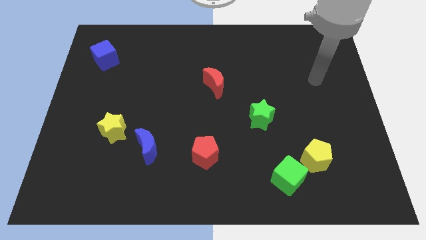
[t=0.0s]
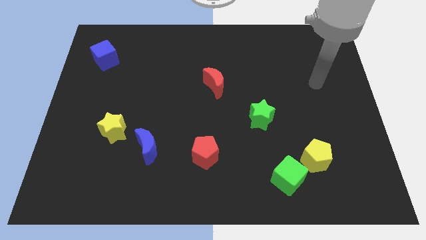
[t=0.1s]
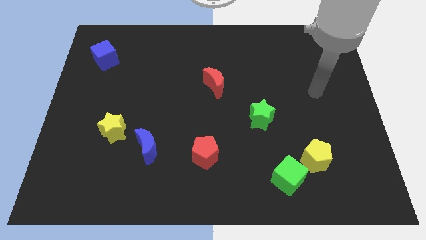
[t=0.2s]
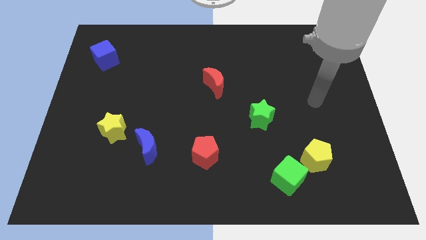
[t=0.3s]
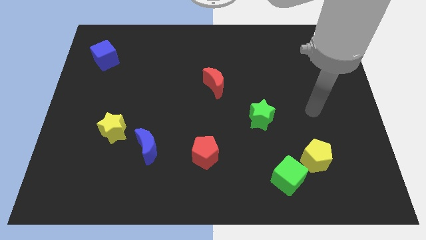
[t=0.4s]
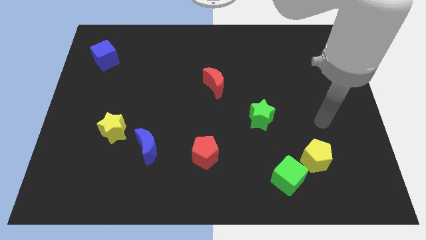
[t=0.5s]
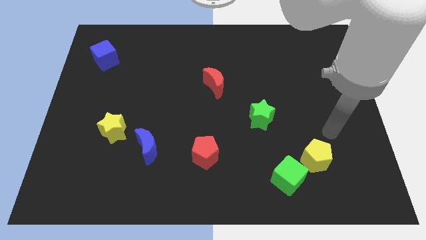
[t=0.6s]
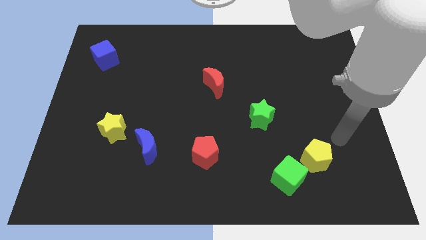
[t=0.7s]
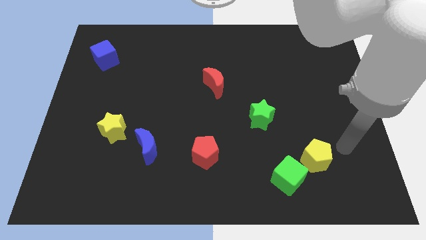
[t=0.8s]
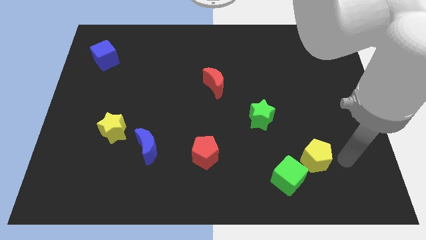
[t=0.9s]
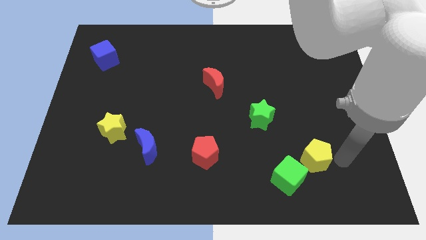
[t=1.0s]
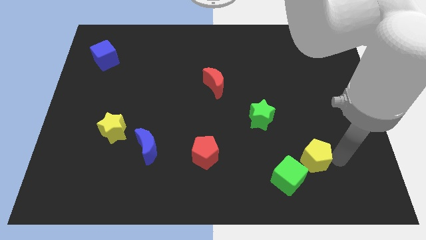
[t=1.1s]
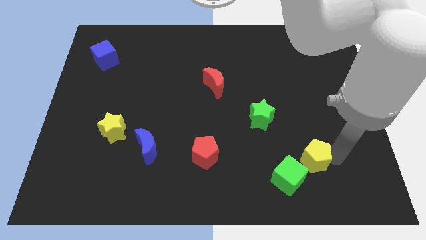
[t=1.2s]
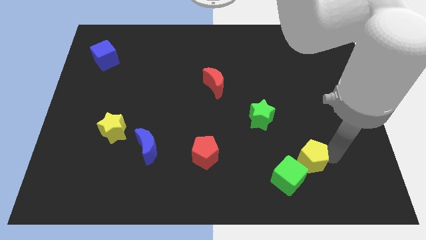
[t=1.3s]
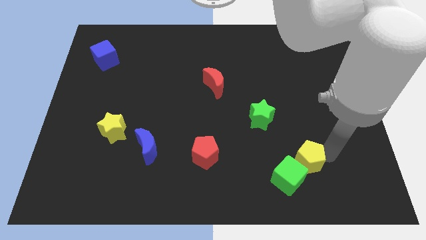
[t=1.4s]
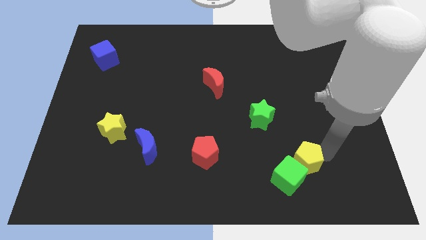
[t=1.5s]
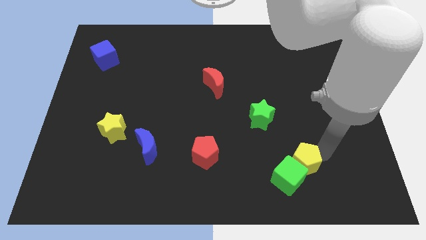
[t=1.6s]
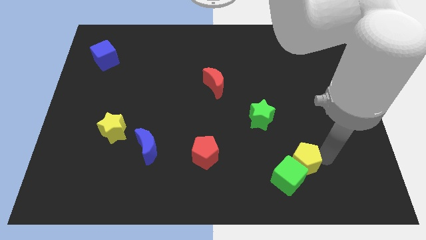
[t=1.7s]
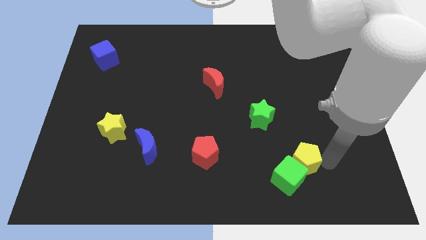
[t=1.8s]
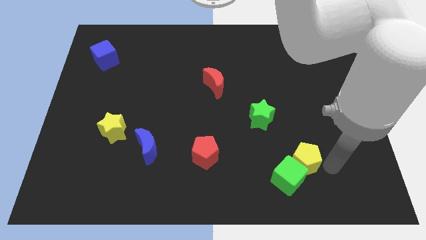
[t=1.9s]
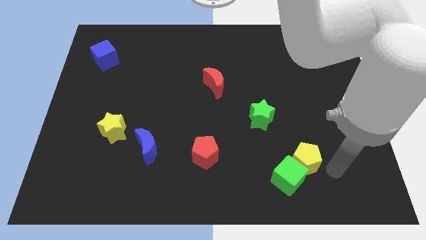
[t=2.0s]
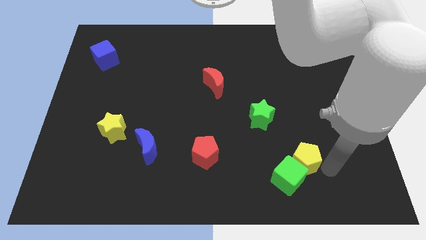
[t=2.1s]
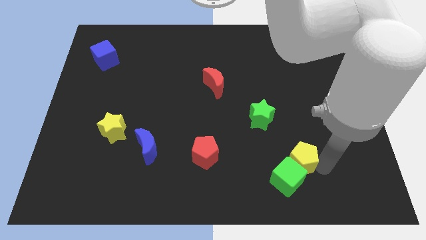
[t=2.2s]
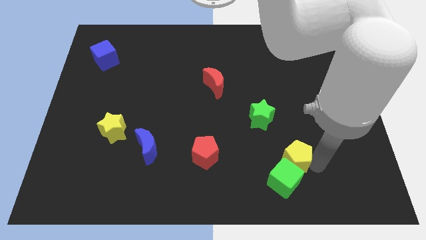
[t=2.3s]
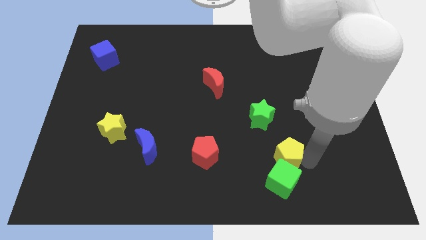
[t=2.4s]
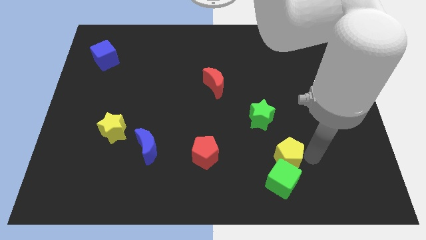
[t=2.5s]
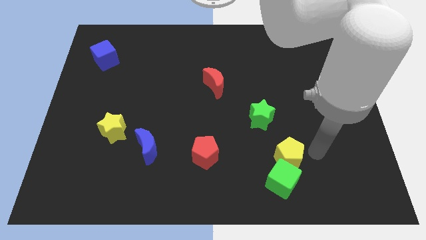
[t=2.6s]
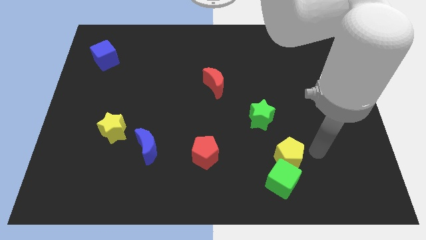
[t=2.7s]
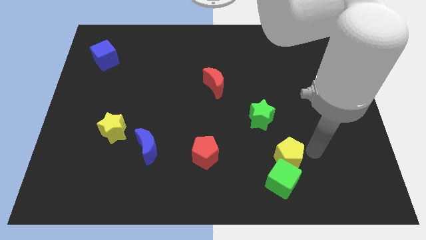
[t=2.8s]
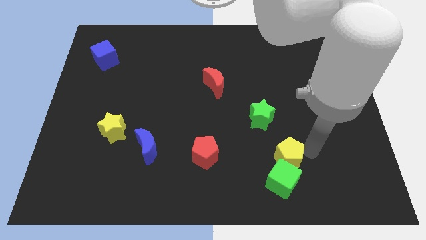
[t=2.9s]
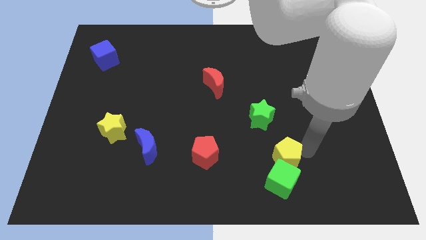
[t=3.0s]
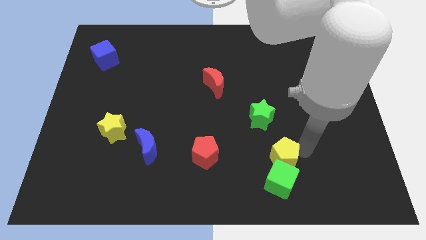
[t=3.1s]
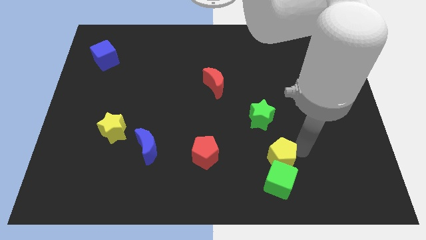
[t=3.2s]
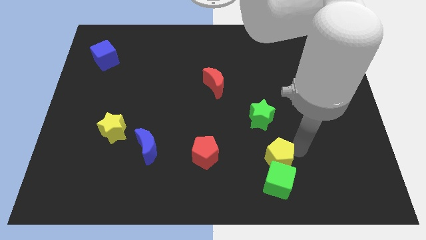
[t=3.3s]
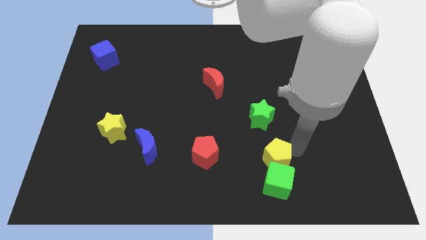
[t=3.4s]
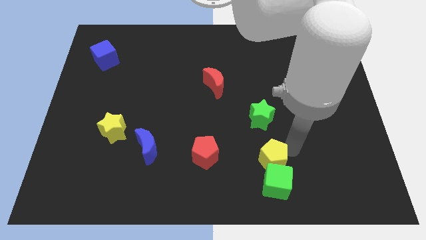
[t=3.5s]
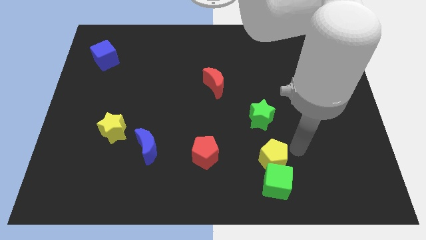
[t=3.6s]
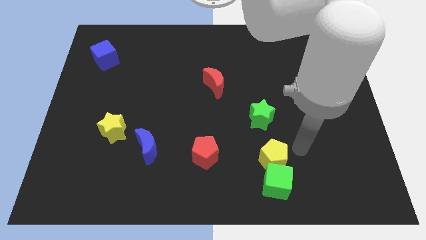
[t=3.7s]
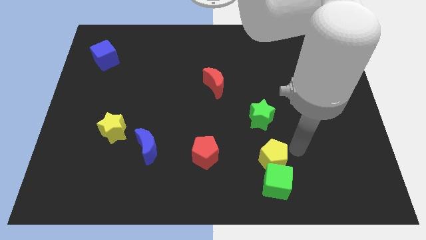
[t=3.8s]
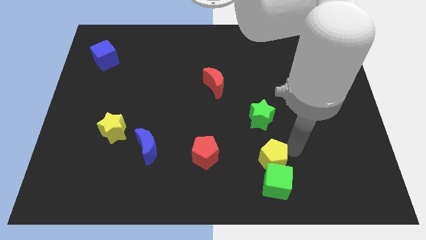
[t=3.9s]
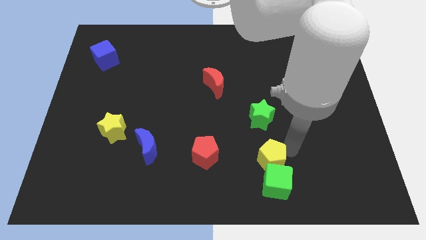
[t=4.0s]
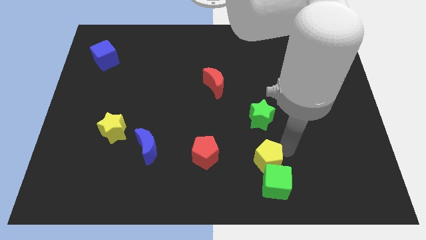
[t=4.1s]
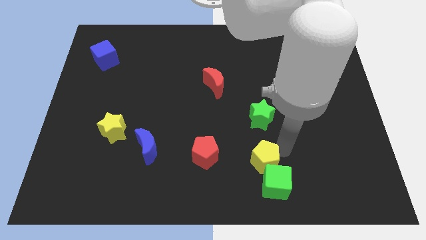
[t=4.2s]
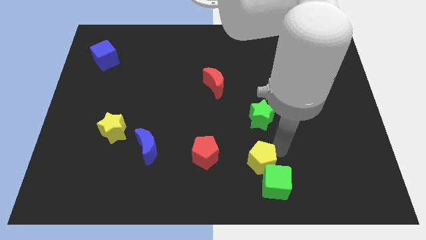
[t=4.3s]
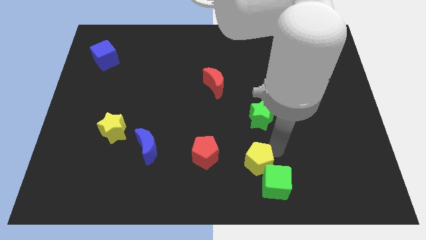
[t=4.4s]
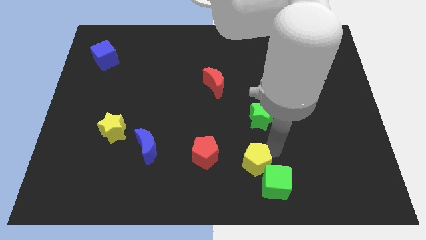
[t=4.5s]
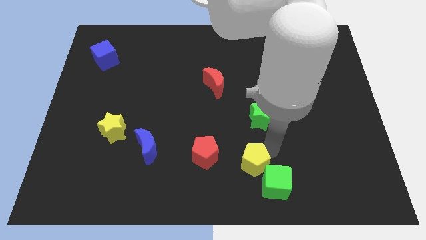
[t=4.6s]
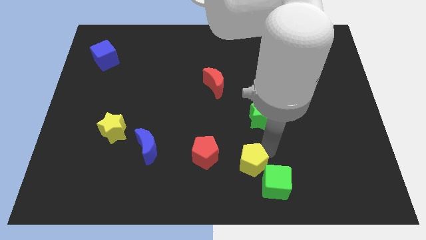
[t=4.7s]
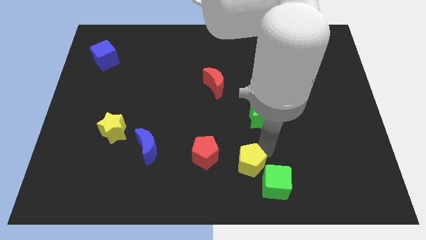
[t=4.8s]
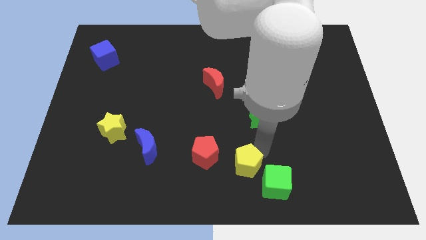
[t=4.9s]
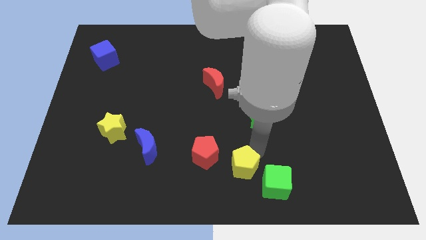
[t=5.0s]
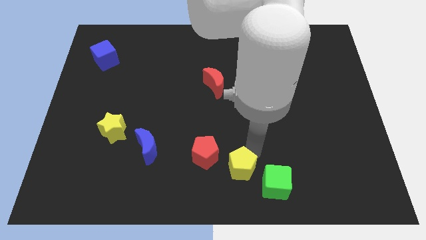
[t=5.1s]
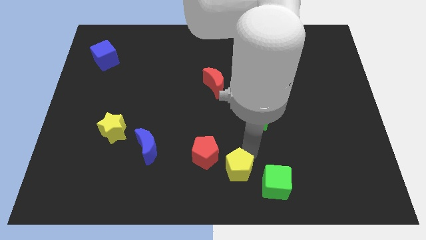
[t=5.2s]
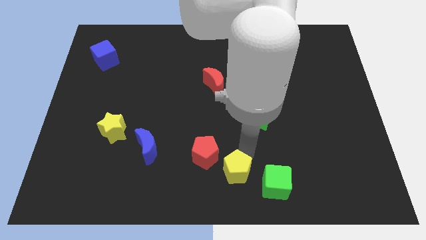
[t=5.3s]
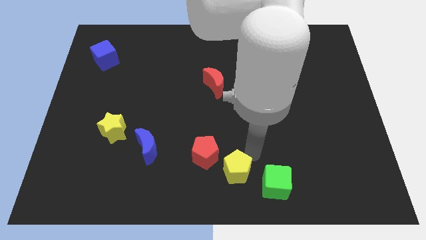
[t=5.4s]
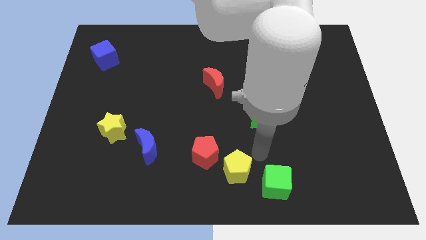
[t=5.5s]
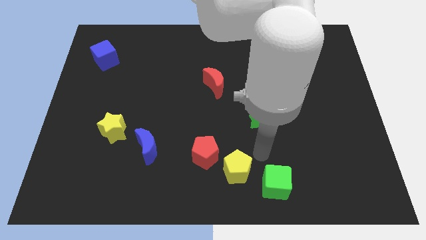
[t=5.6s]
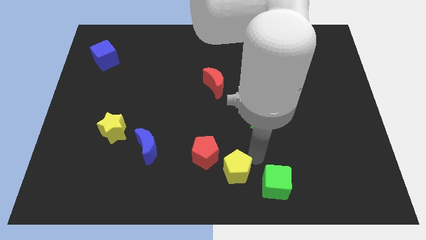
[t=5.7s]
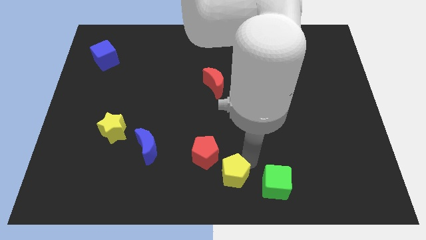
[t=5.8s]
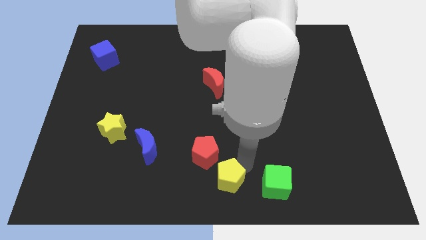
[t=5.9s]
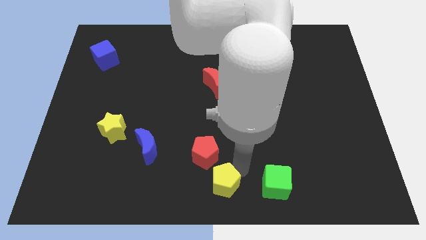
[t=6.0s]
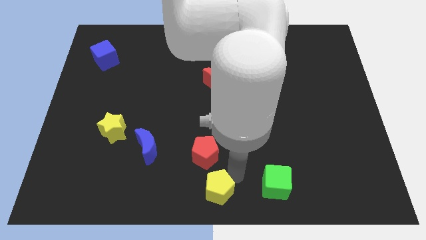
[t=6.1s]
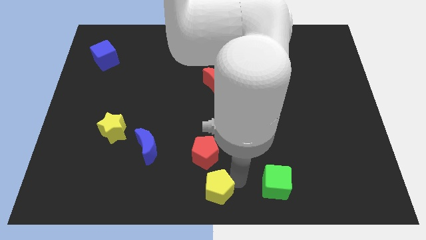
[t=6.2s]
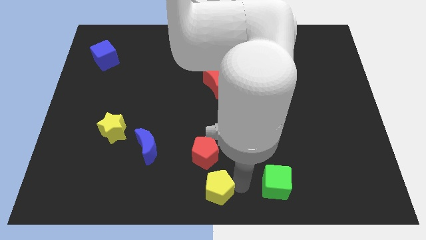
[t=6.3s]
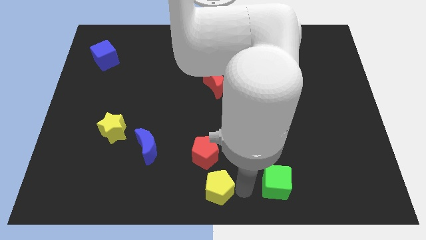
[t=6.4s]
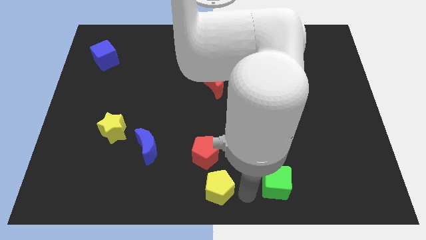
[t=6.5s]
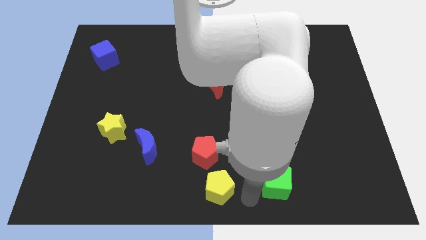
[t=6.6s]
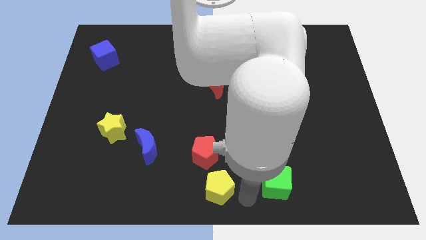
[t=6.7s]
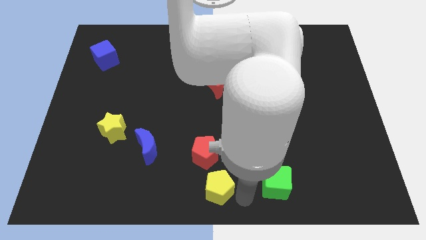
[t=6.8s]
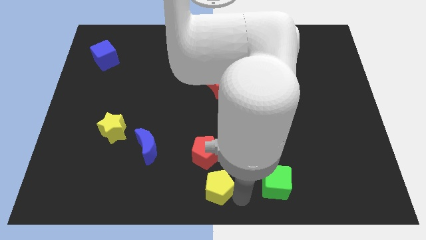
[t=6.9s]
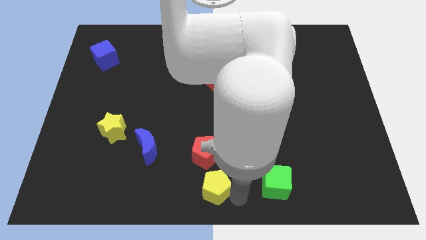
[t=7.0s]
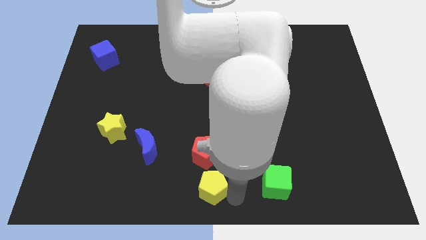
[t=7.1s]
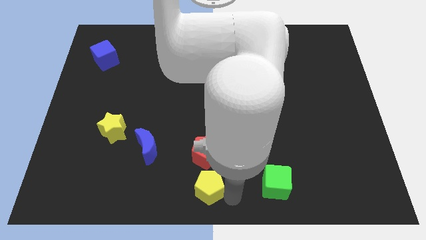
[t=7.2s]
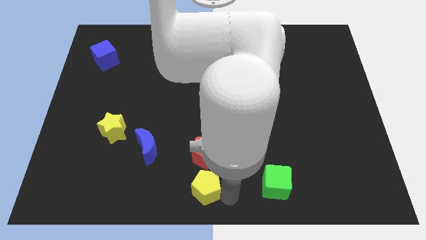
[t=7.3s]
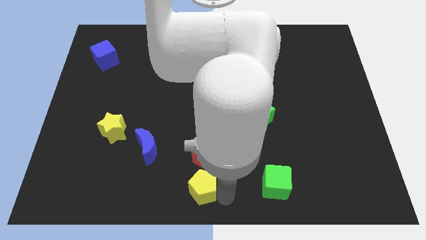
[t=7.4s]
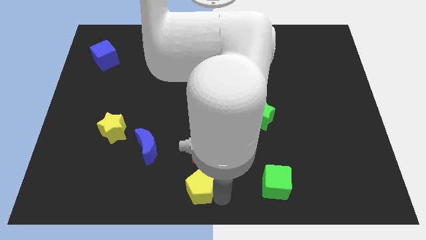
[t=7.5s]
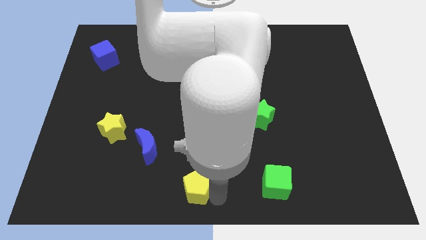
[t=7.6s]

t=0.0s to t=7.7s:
put the yellow pentagon to the bottom left of the red pentagon
